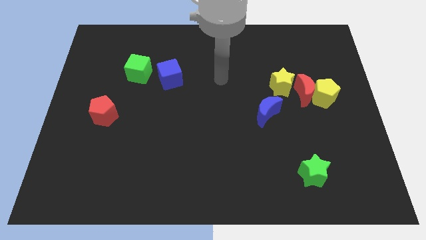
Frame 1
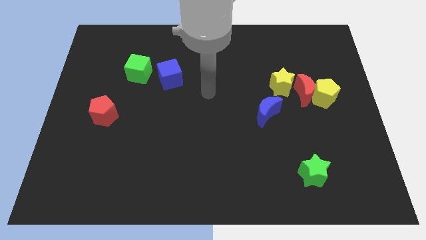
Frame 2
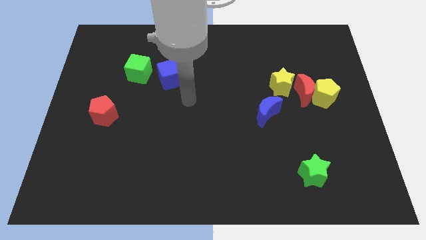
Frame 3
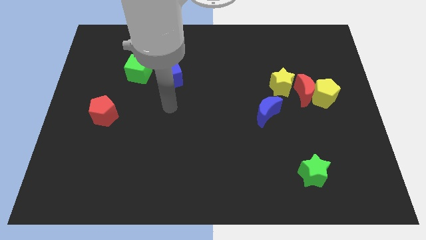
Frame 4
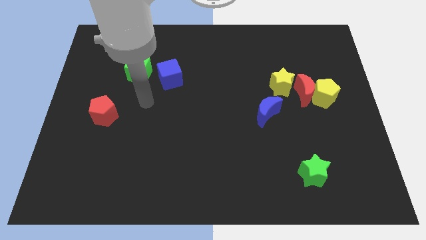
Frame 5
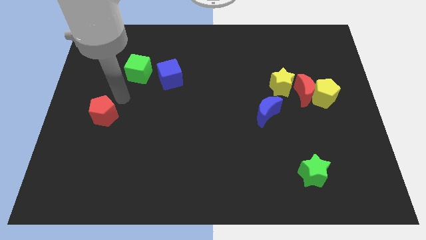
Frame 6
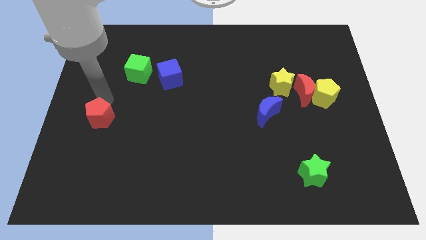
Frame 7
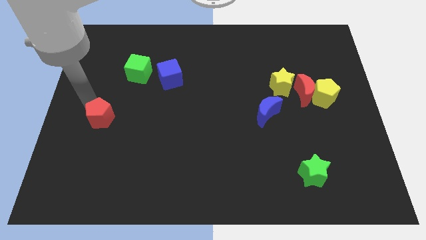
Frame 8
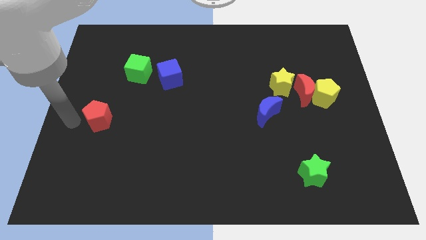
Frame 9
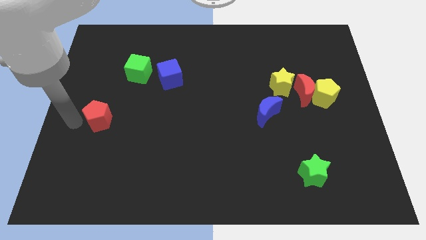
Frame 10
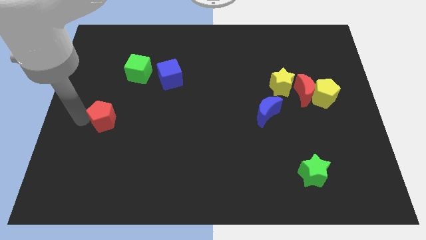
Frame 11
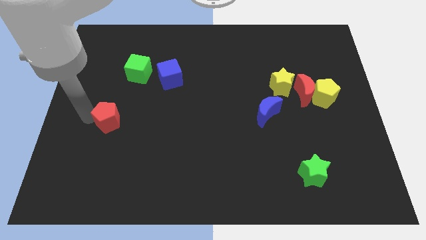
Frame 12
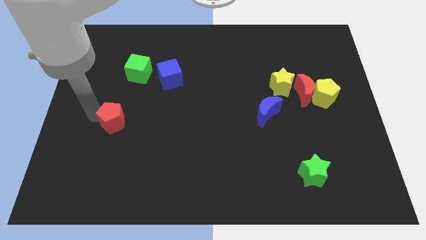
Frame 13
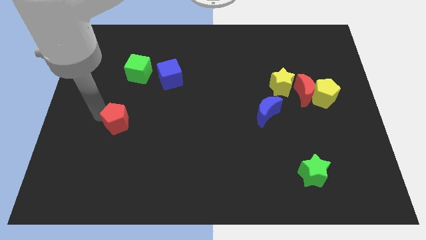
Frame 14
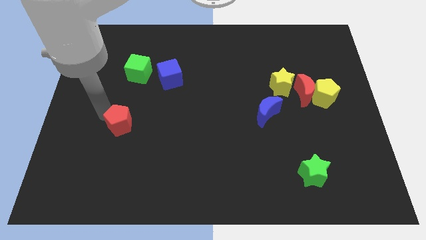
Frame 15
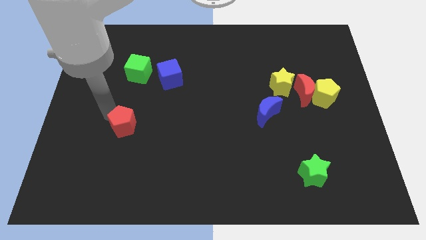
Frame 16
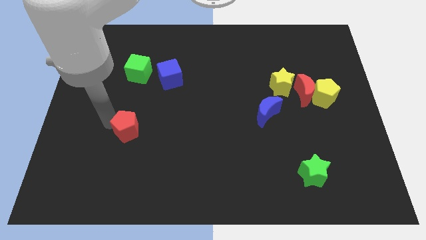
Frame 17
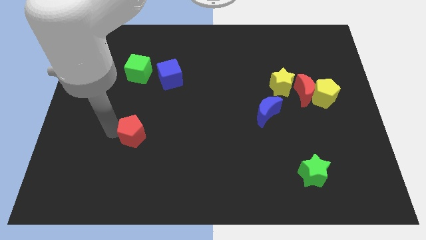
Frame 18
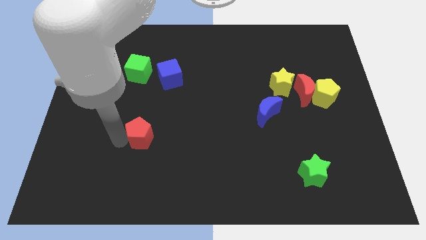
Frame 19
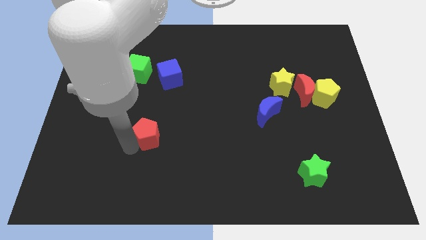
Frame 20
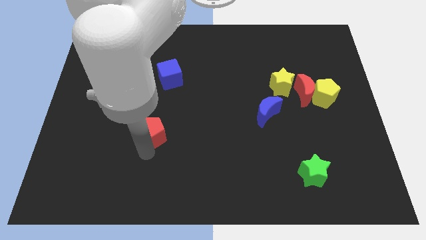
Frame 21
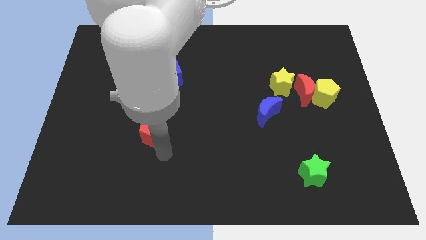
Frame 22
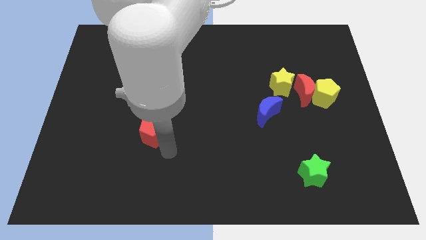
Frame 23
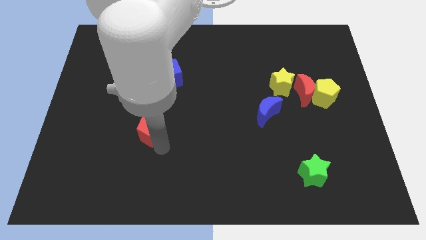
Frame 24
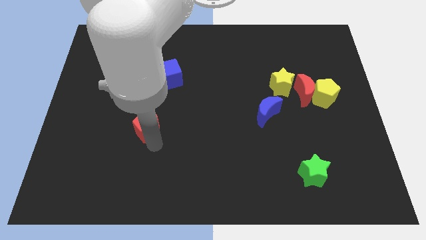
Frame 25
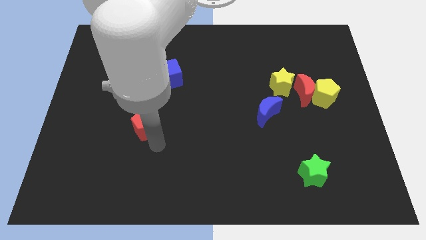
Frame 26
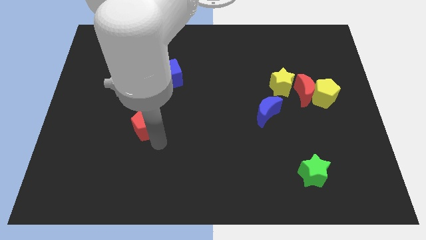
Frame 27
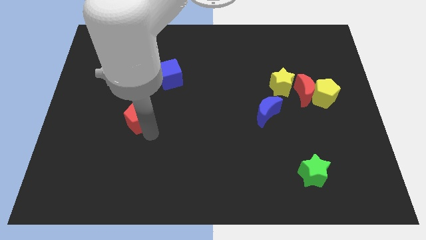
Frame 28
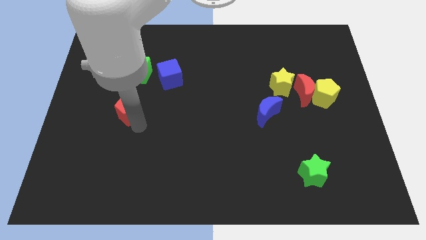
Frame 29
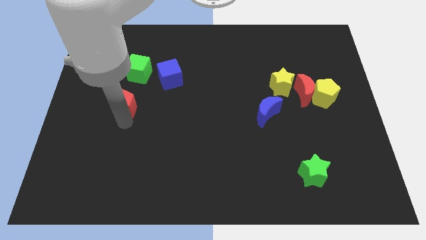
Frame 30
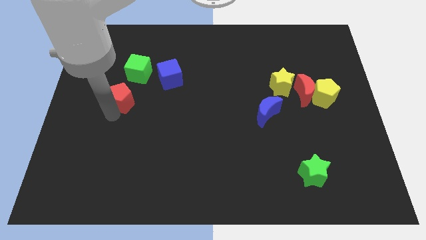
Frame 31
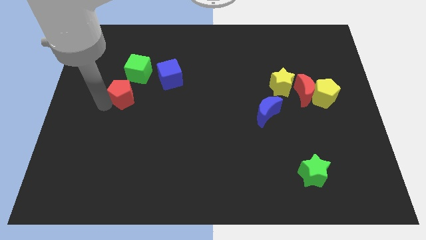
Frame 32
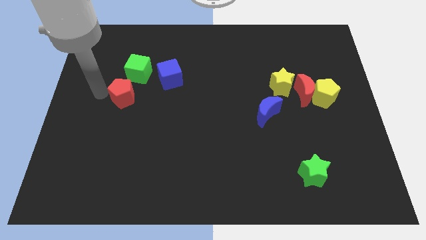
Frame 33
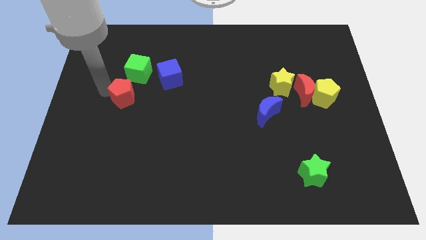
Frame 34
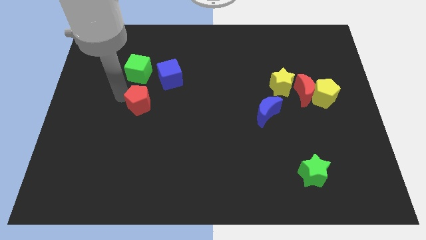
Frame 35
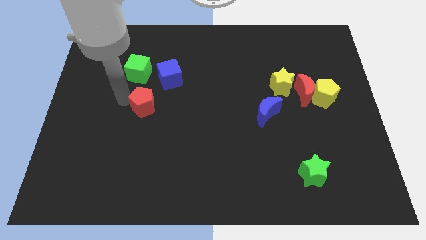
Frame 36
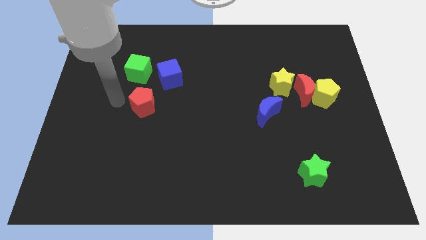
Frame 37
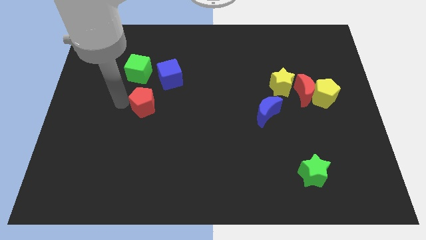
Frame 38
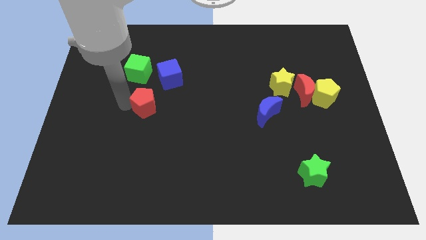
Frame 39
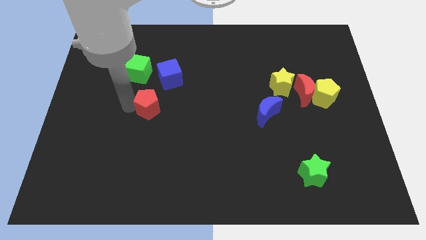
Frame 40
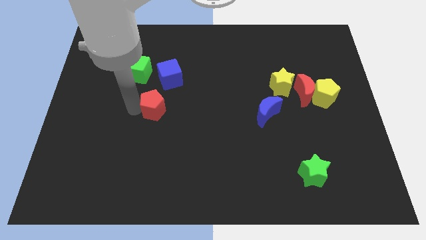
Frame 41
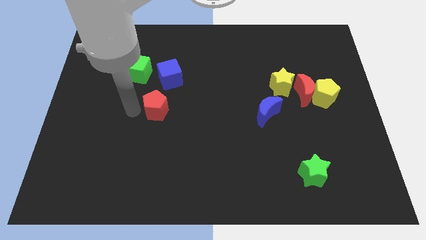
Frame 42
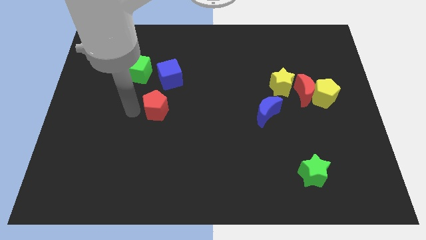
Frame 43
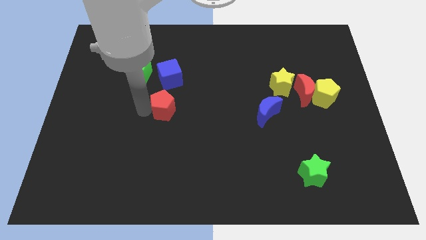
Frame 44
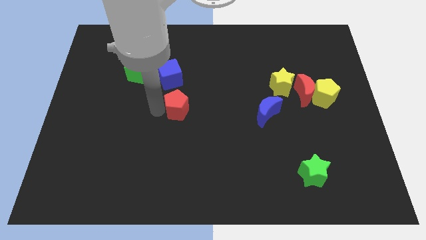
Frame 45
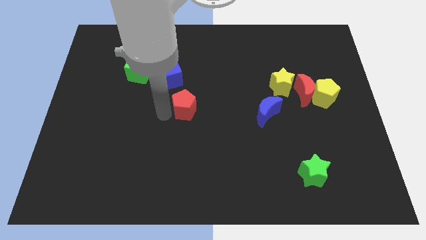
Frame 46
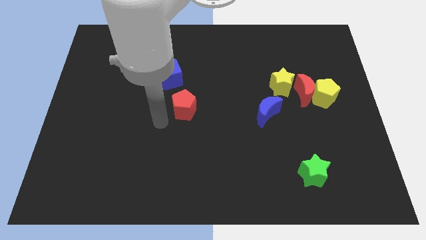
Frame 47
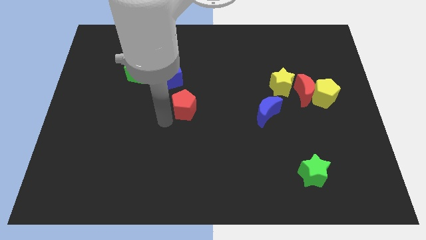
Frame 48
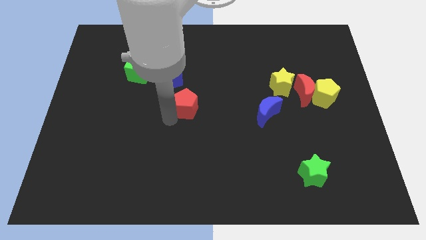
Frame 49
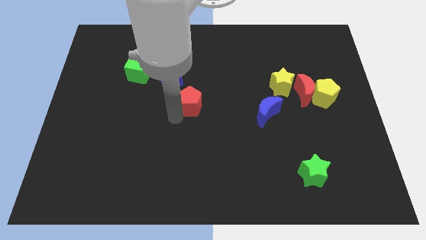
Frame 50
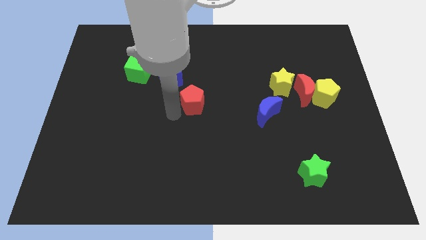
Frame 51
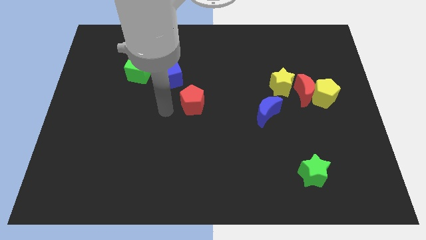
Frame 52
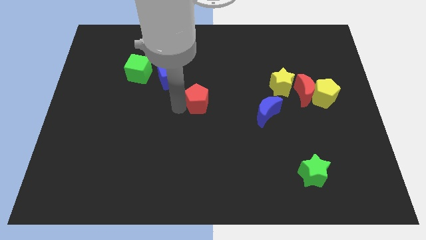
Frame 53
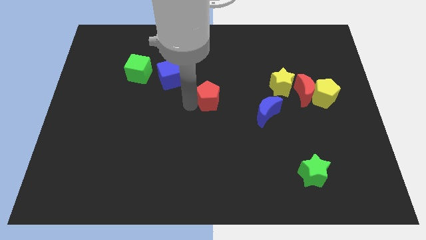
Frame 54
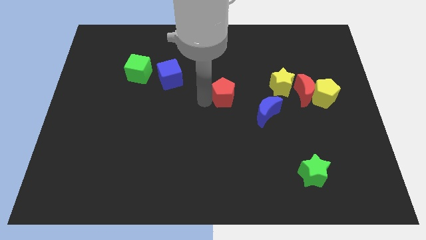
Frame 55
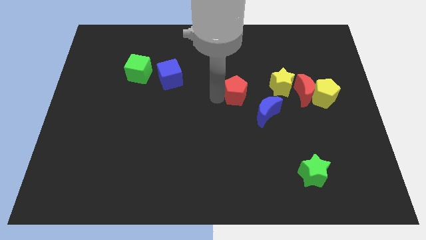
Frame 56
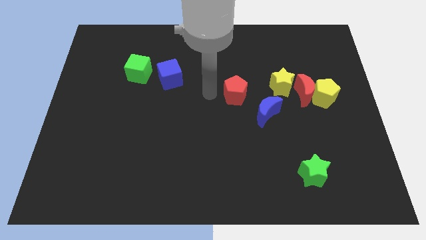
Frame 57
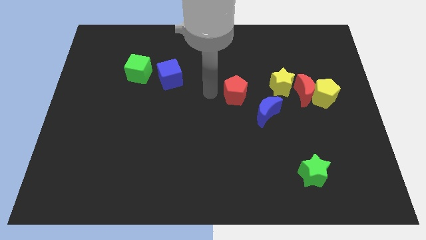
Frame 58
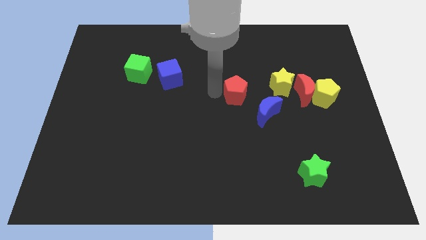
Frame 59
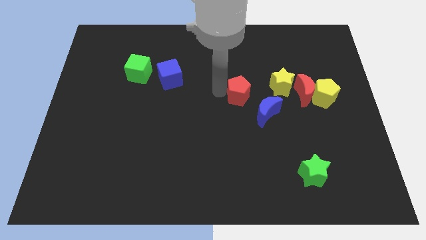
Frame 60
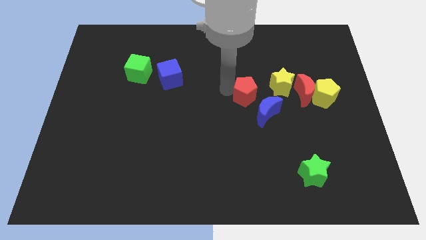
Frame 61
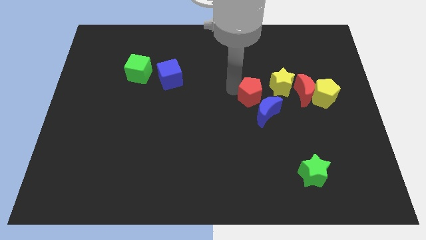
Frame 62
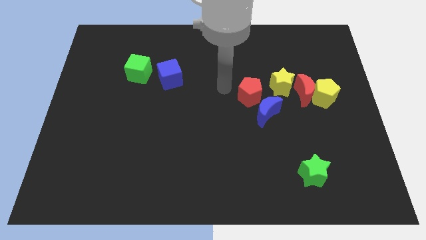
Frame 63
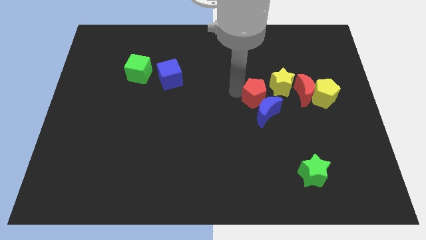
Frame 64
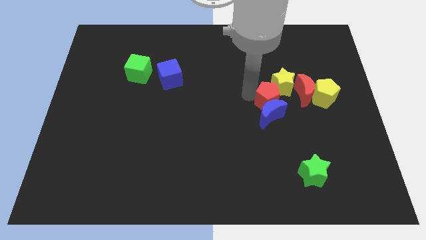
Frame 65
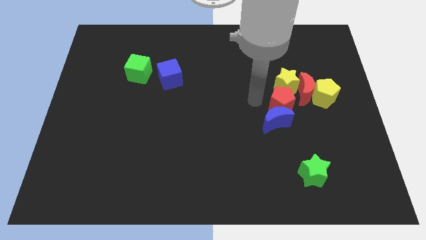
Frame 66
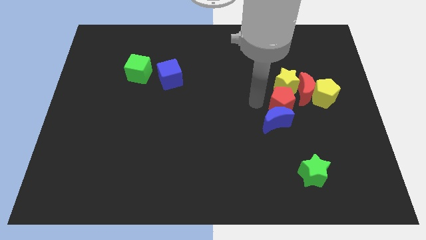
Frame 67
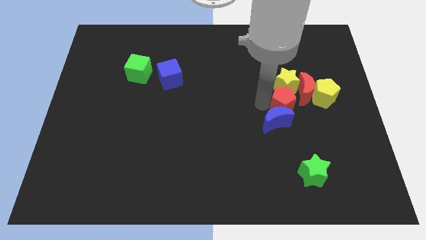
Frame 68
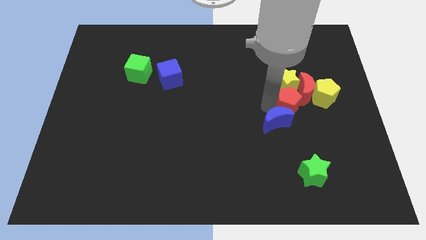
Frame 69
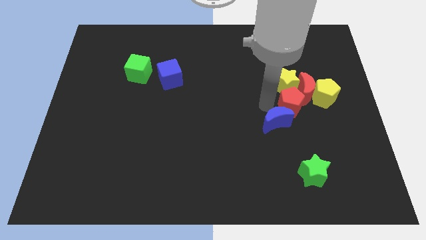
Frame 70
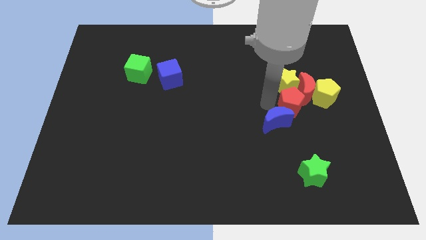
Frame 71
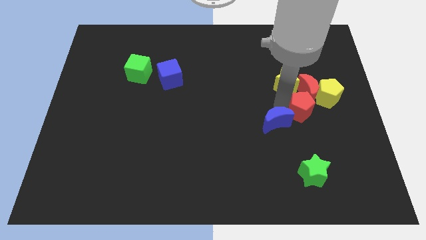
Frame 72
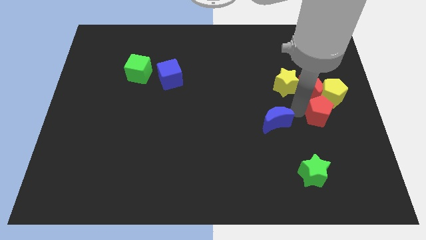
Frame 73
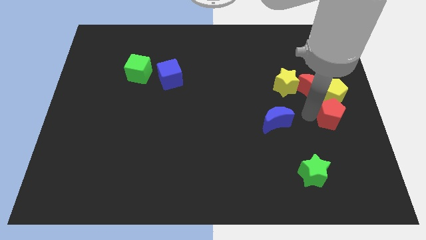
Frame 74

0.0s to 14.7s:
push the red pentagon to the right side
